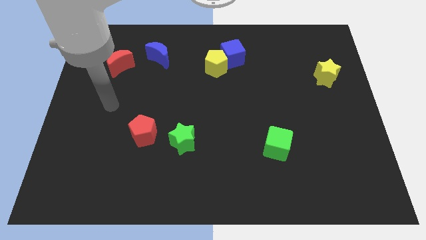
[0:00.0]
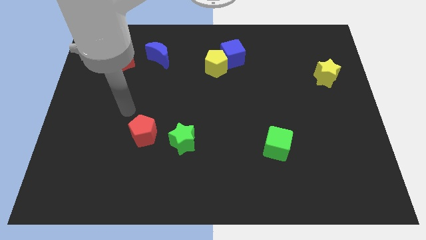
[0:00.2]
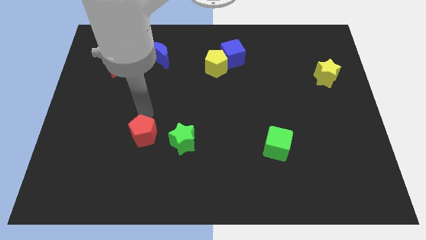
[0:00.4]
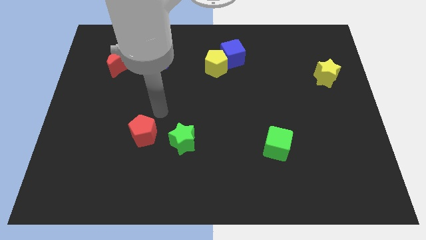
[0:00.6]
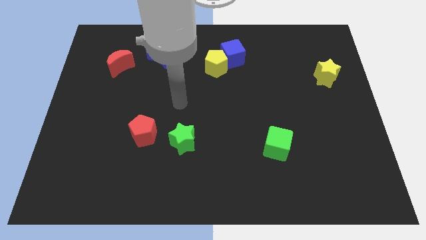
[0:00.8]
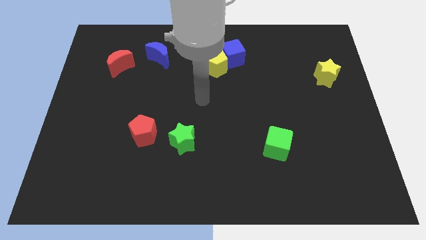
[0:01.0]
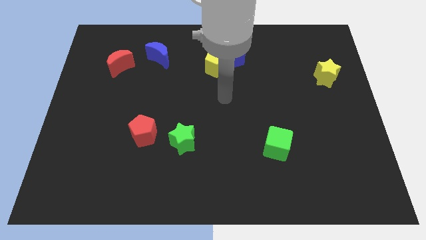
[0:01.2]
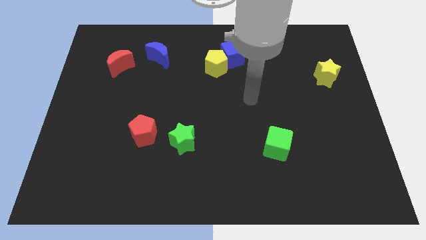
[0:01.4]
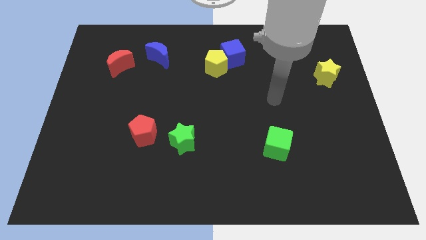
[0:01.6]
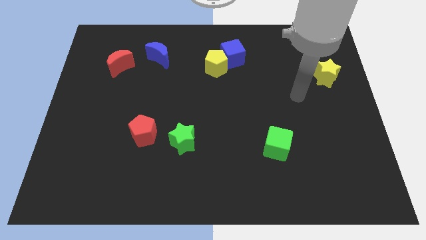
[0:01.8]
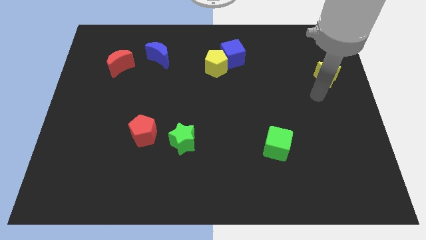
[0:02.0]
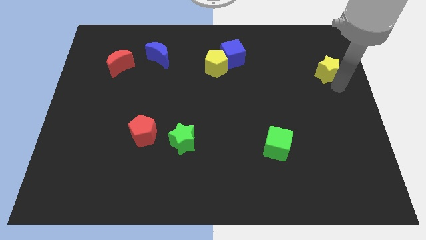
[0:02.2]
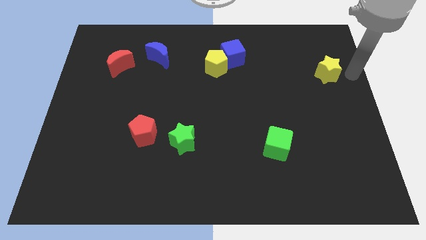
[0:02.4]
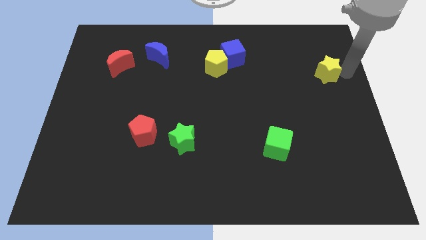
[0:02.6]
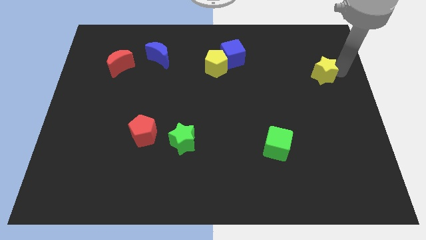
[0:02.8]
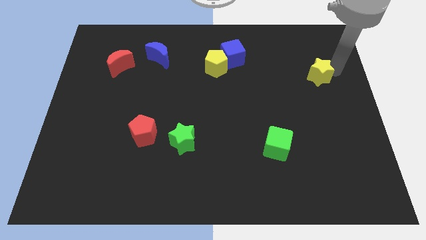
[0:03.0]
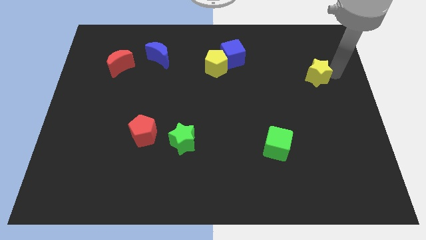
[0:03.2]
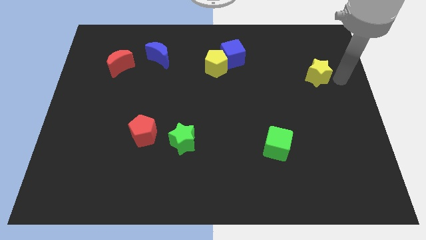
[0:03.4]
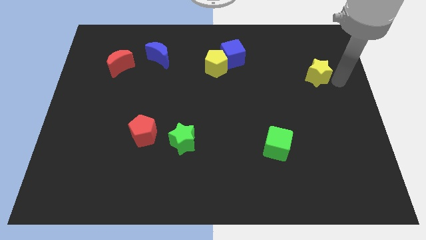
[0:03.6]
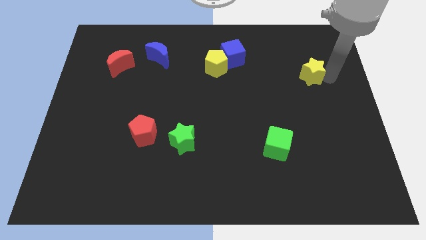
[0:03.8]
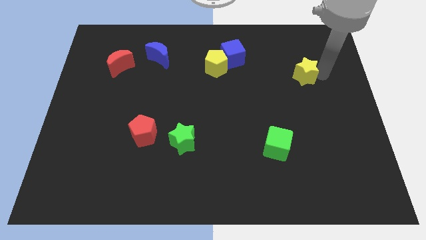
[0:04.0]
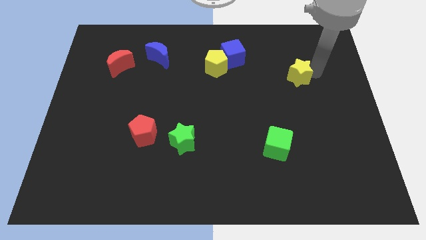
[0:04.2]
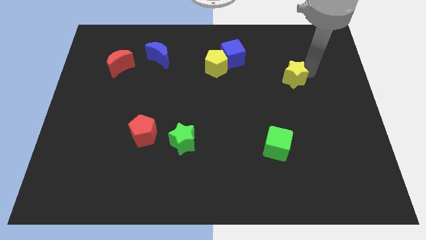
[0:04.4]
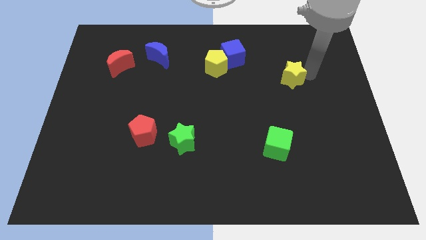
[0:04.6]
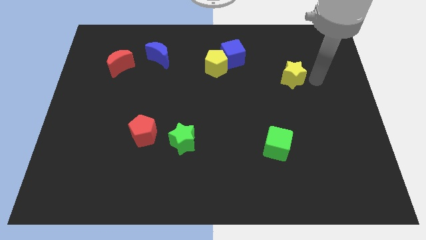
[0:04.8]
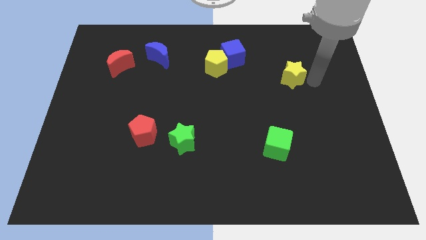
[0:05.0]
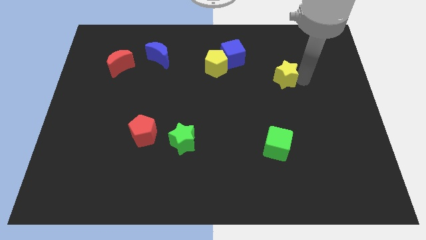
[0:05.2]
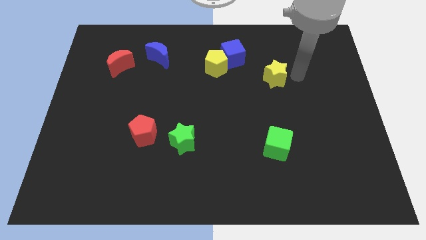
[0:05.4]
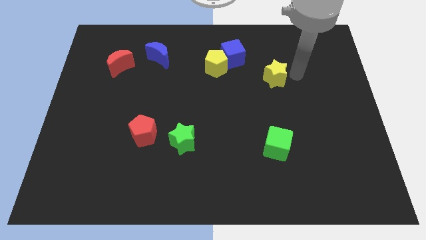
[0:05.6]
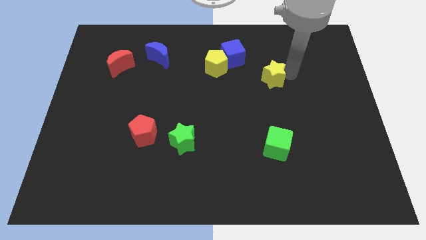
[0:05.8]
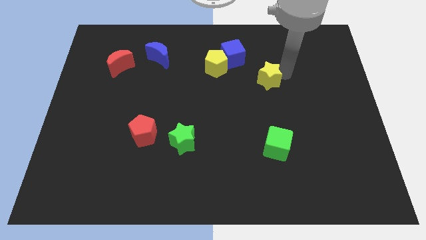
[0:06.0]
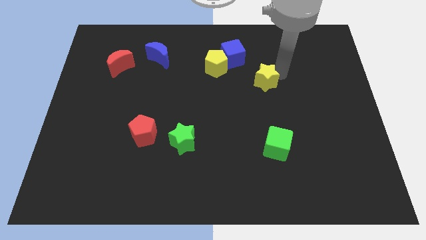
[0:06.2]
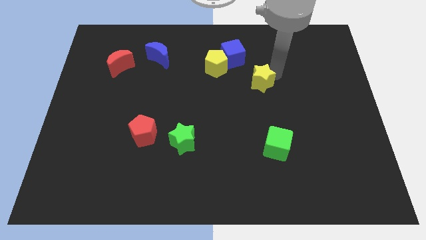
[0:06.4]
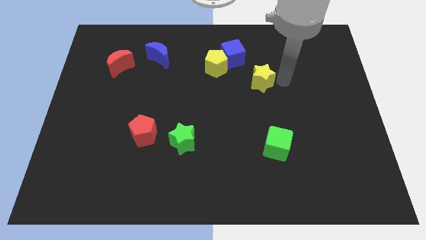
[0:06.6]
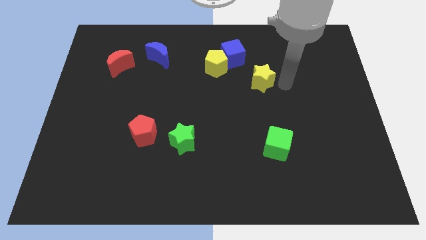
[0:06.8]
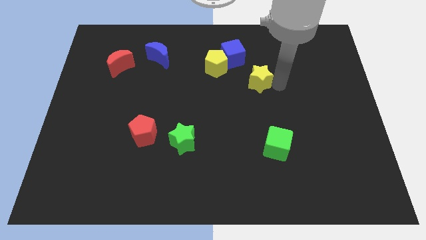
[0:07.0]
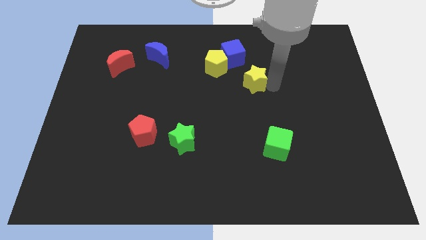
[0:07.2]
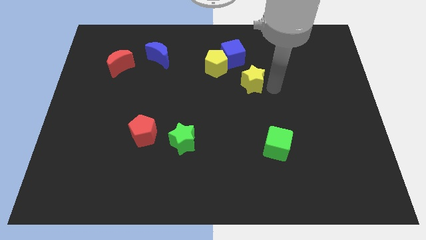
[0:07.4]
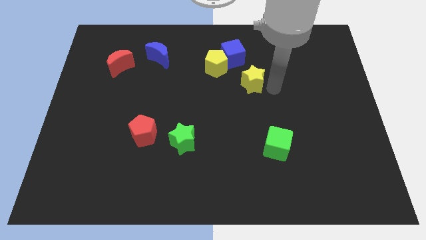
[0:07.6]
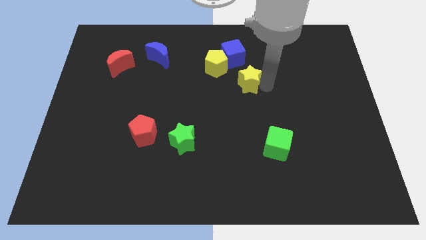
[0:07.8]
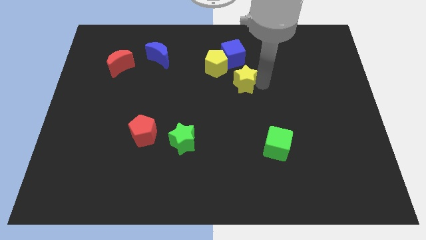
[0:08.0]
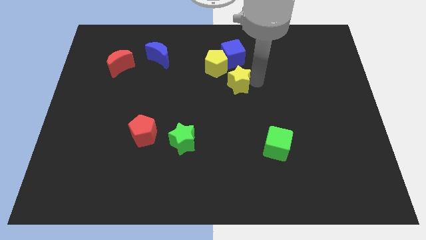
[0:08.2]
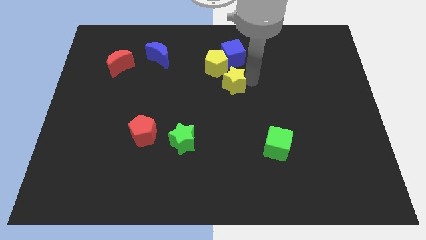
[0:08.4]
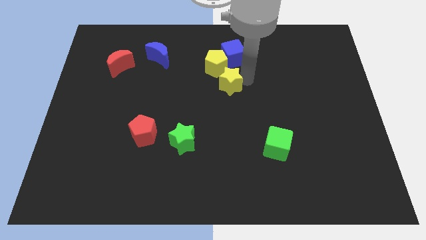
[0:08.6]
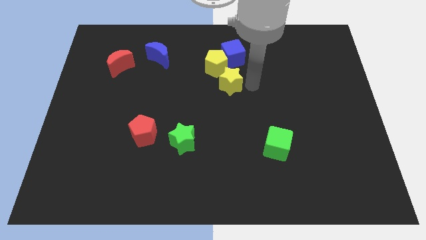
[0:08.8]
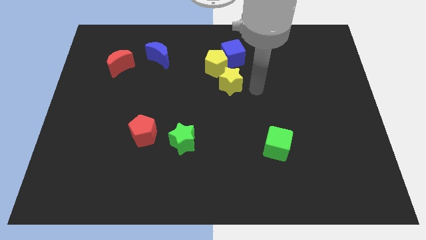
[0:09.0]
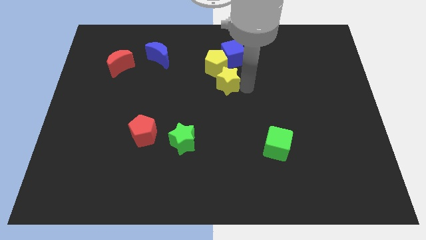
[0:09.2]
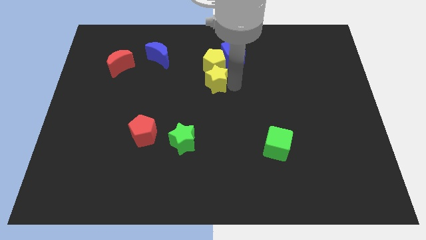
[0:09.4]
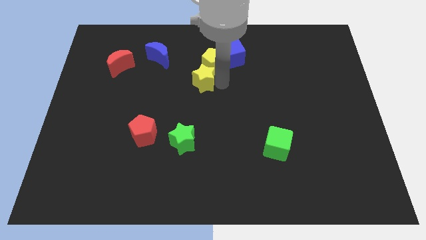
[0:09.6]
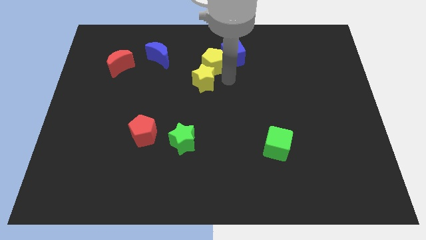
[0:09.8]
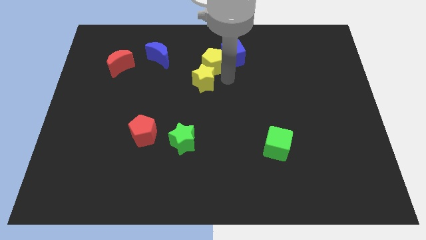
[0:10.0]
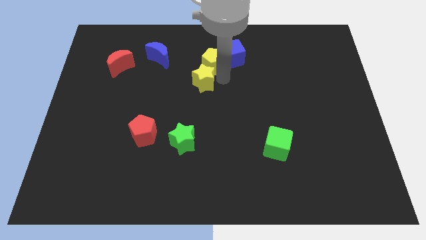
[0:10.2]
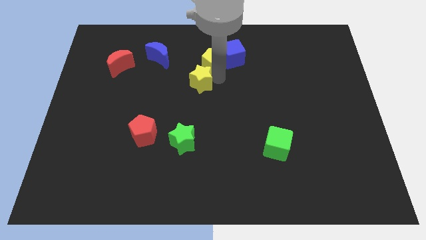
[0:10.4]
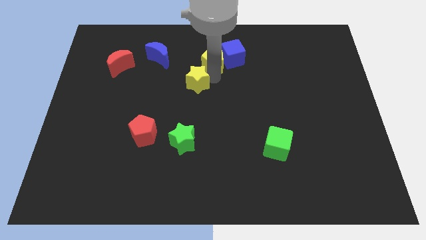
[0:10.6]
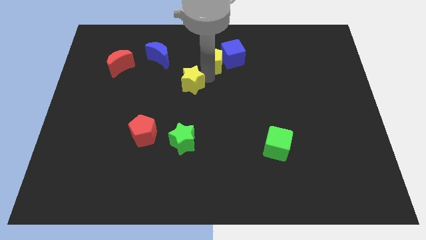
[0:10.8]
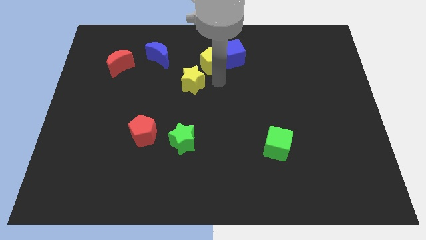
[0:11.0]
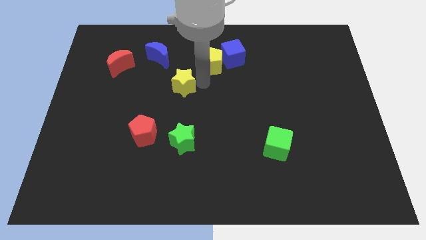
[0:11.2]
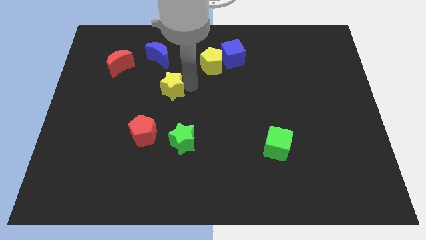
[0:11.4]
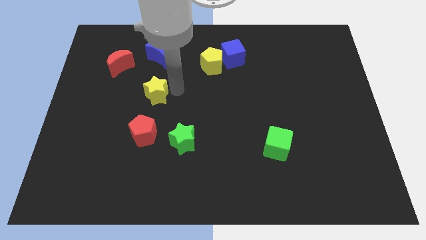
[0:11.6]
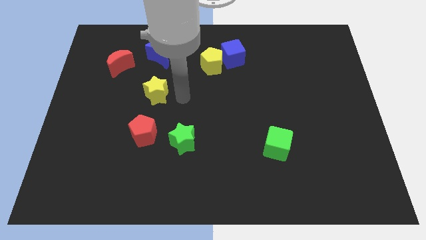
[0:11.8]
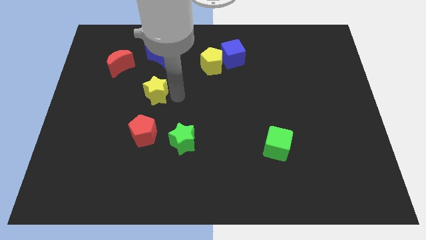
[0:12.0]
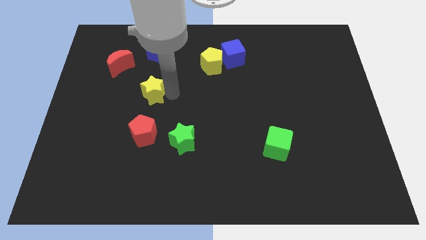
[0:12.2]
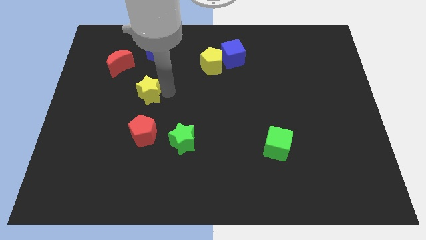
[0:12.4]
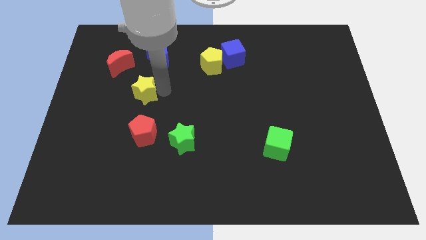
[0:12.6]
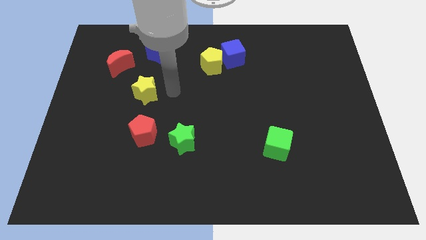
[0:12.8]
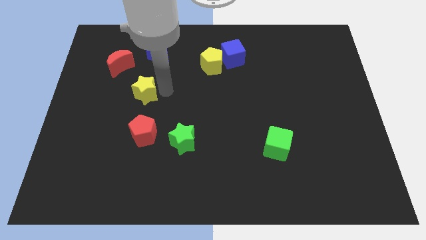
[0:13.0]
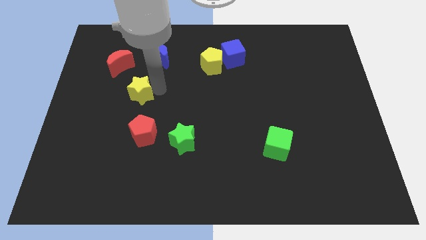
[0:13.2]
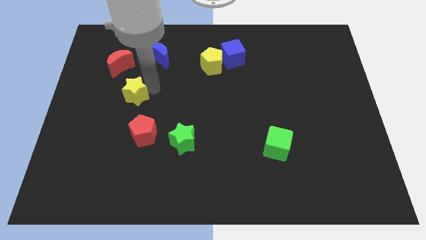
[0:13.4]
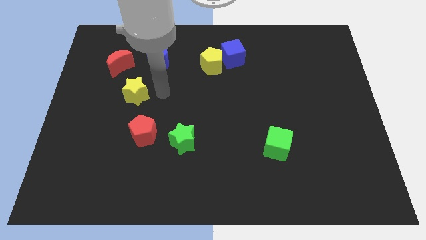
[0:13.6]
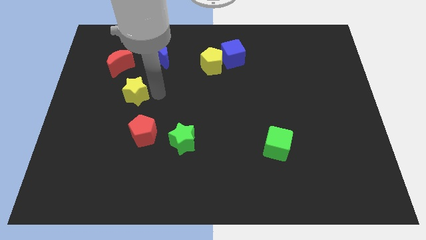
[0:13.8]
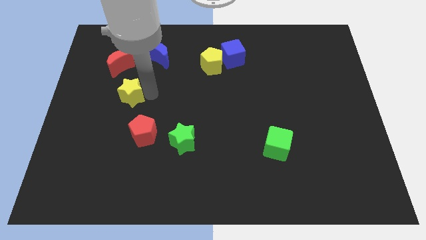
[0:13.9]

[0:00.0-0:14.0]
move the yellow star below the red moon

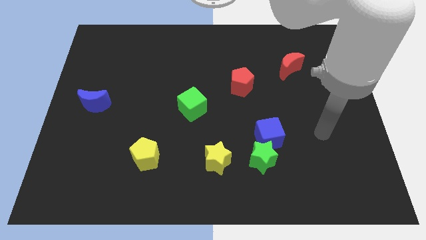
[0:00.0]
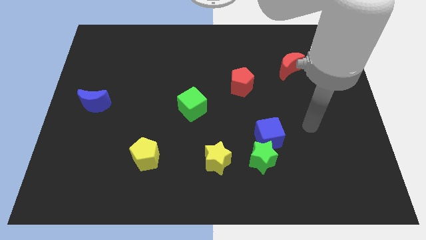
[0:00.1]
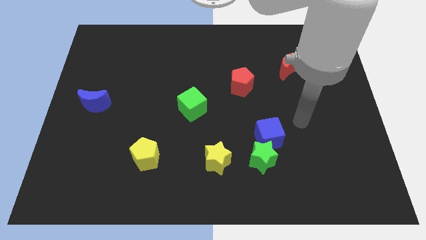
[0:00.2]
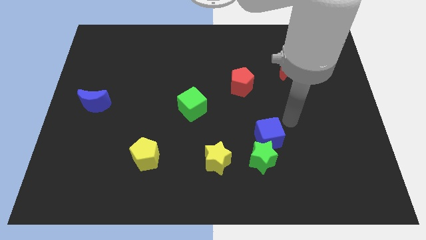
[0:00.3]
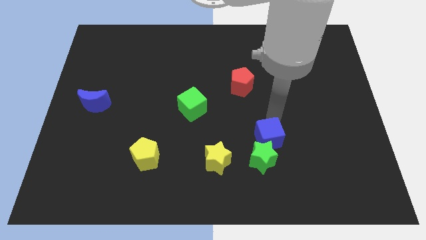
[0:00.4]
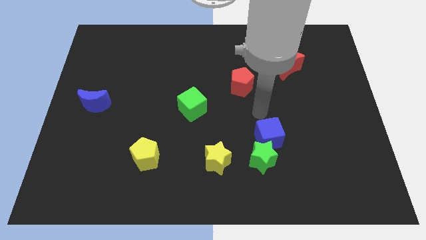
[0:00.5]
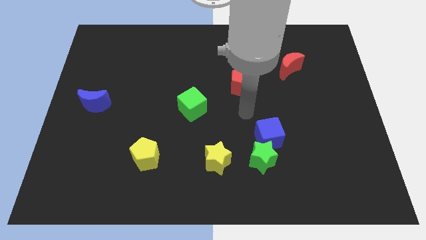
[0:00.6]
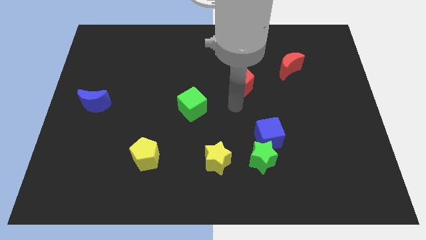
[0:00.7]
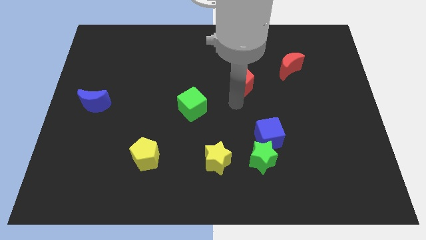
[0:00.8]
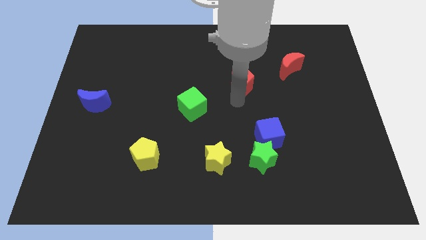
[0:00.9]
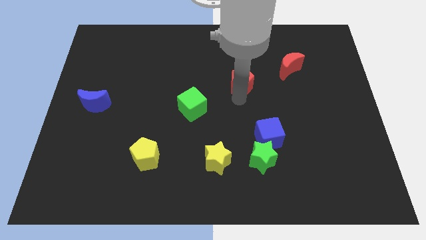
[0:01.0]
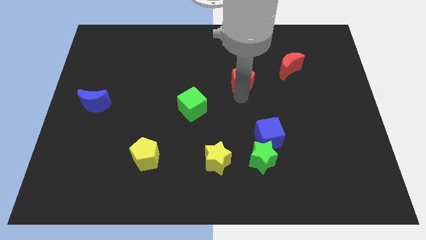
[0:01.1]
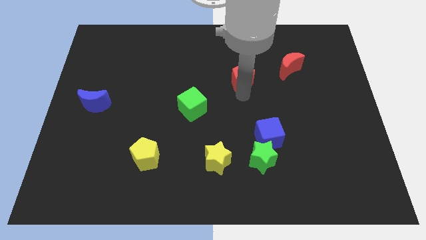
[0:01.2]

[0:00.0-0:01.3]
slide the red pentagon left of the red moon

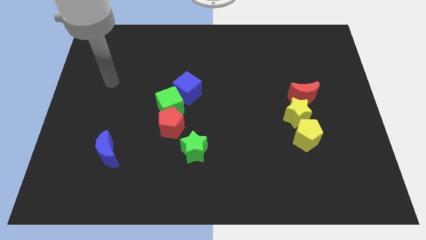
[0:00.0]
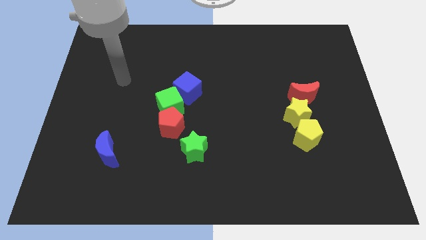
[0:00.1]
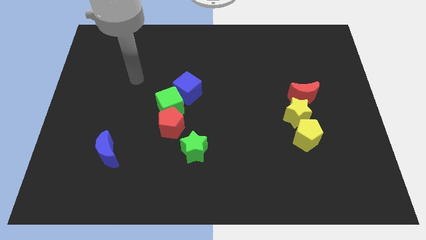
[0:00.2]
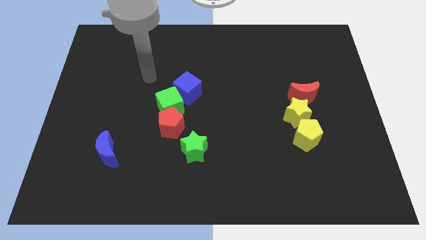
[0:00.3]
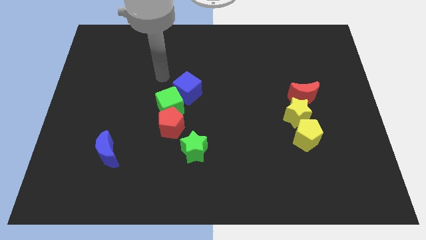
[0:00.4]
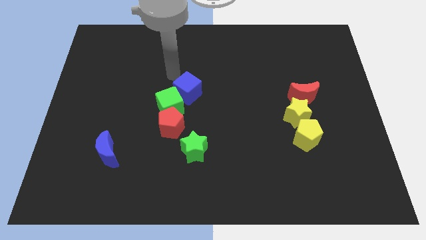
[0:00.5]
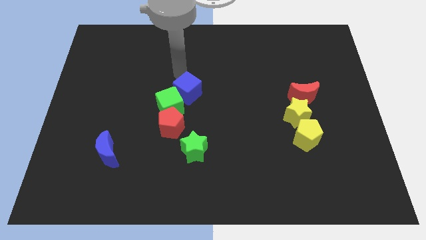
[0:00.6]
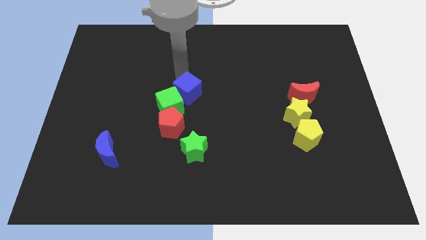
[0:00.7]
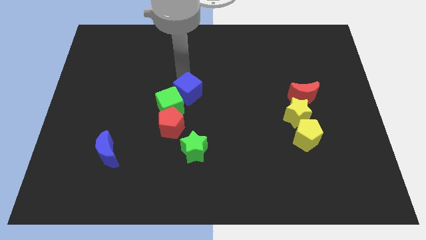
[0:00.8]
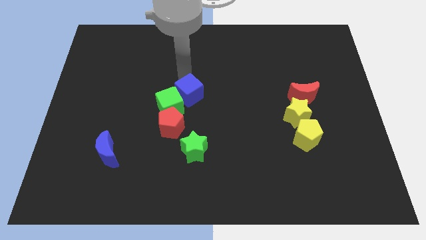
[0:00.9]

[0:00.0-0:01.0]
push the blue cube to the top side of the green star
